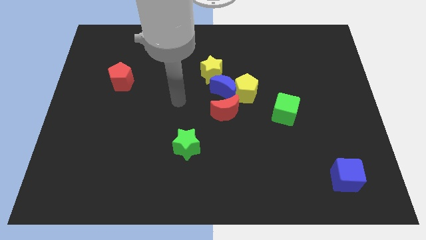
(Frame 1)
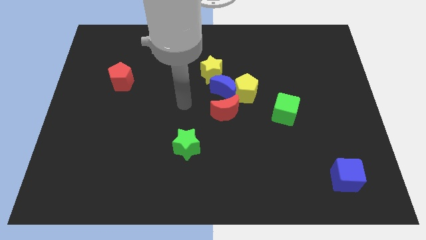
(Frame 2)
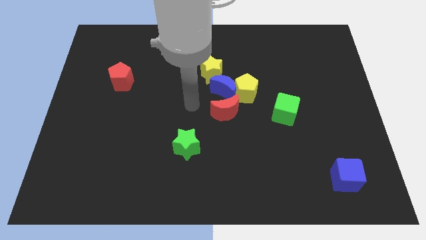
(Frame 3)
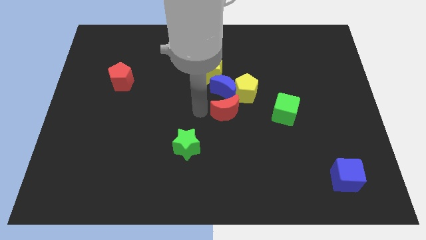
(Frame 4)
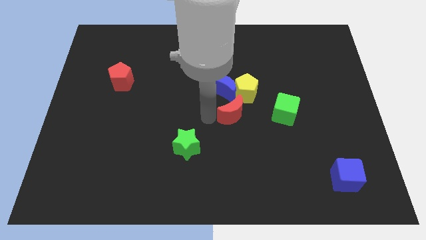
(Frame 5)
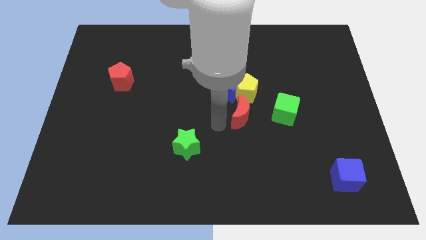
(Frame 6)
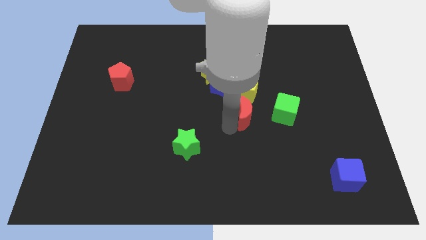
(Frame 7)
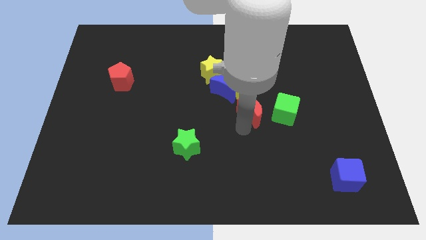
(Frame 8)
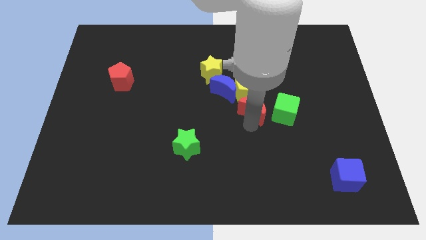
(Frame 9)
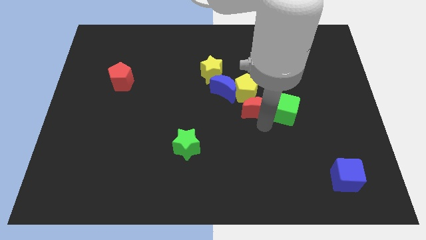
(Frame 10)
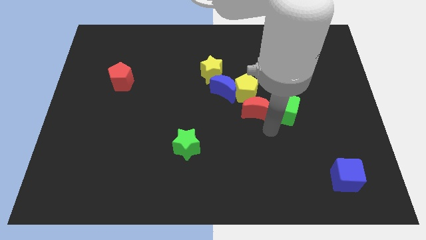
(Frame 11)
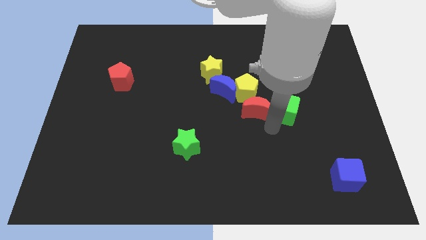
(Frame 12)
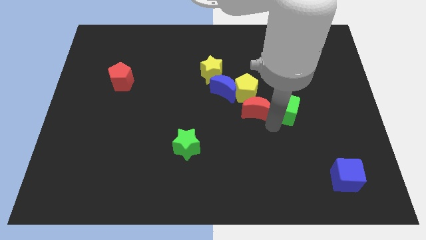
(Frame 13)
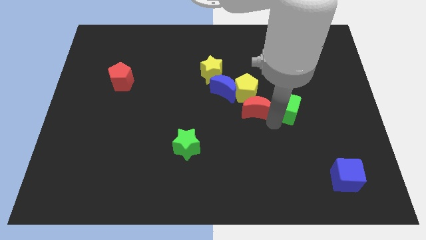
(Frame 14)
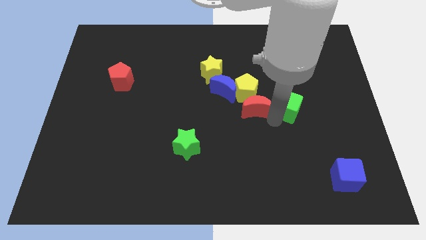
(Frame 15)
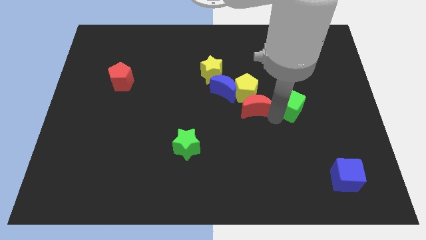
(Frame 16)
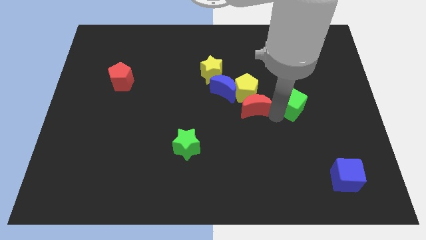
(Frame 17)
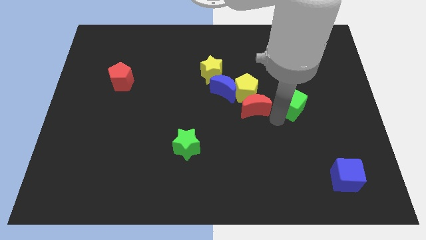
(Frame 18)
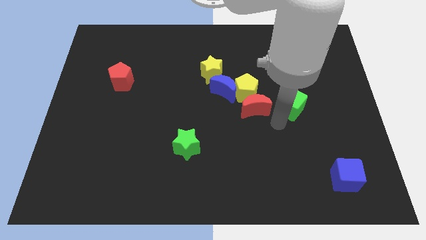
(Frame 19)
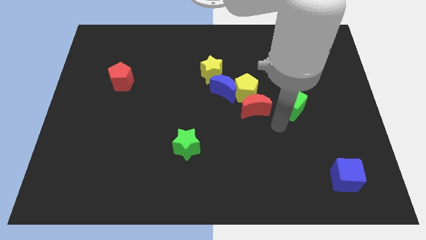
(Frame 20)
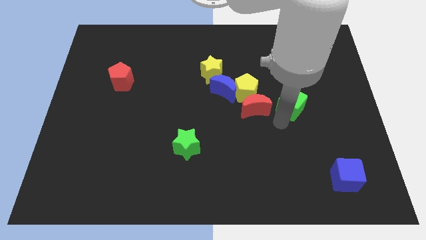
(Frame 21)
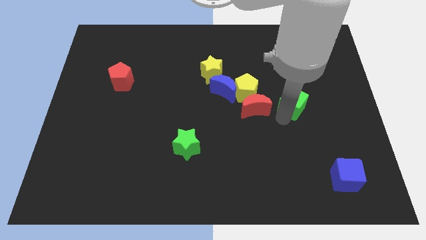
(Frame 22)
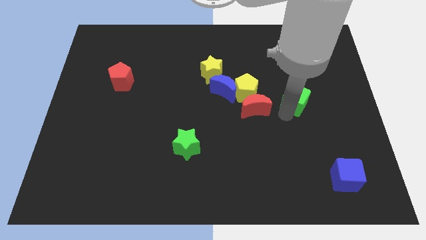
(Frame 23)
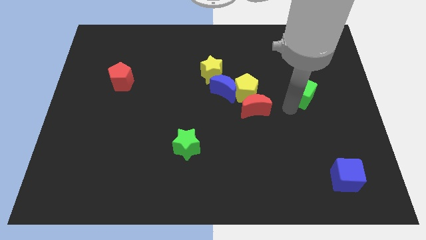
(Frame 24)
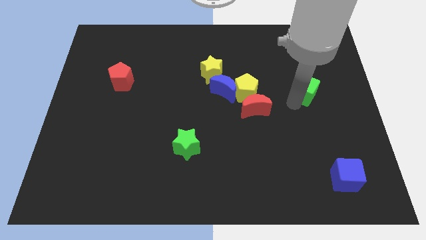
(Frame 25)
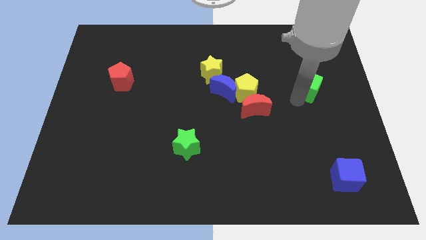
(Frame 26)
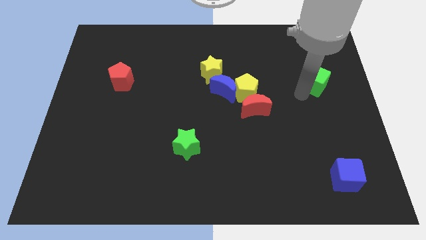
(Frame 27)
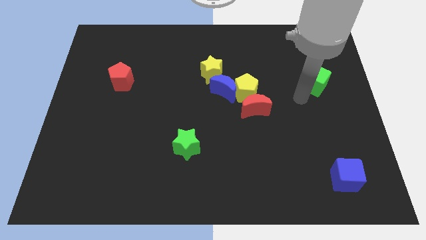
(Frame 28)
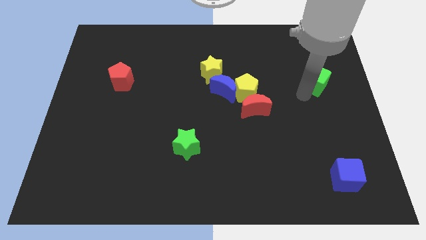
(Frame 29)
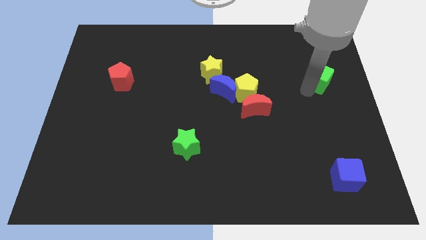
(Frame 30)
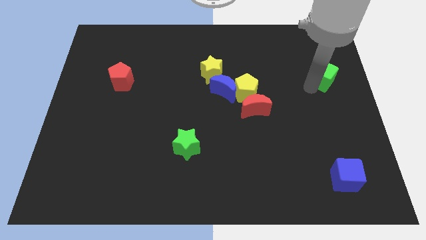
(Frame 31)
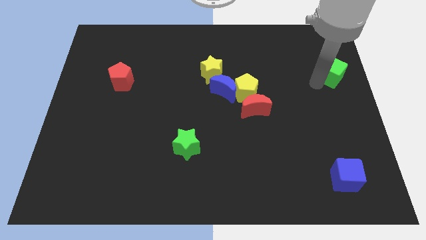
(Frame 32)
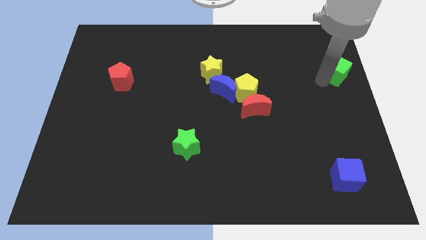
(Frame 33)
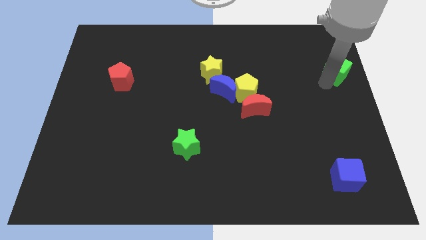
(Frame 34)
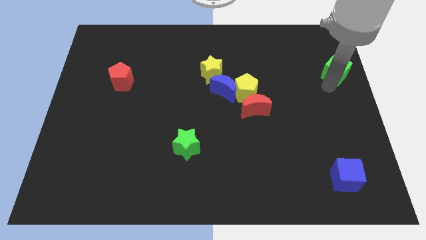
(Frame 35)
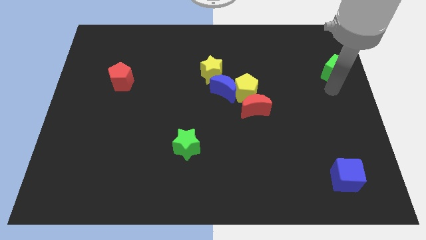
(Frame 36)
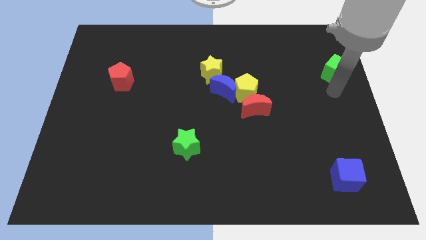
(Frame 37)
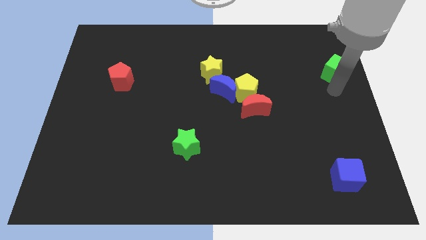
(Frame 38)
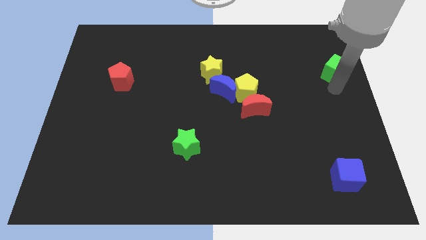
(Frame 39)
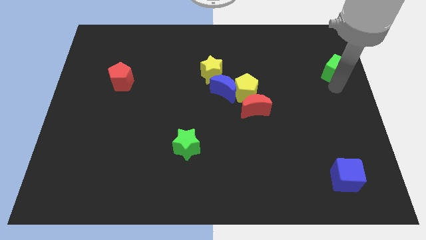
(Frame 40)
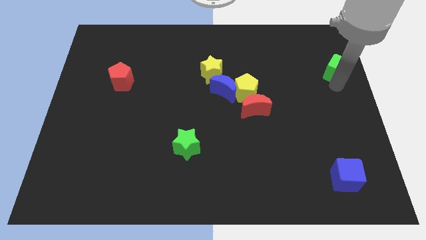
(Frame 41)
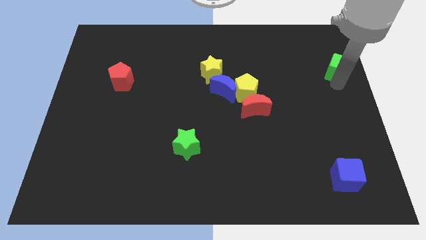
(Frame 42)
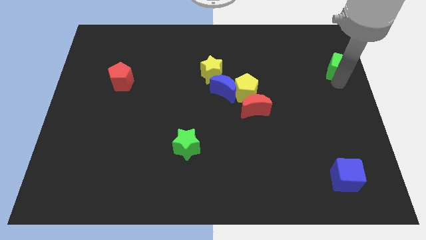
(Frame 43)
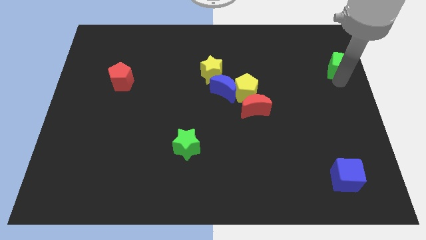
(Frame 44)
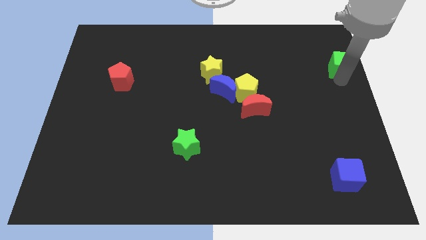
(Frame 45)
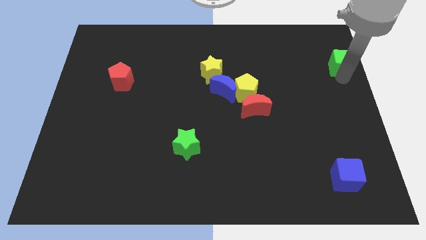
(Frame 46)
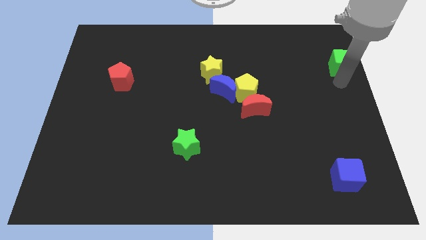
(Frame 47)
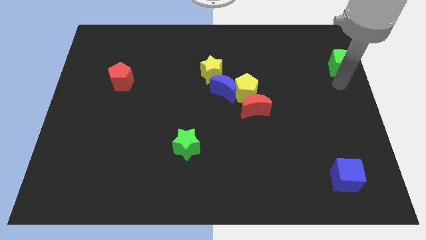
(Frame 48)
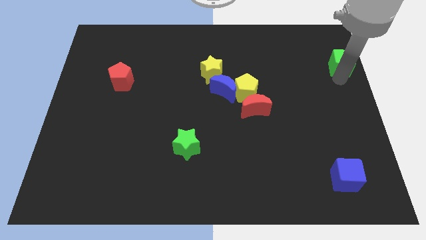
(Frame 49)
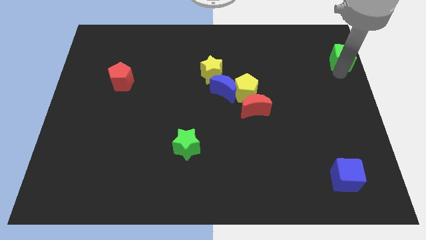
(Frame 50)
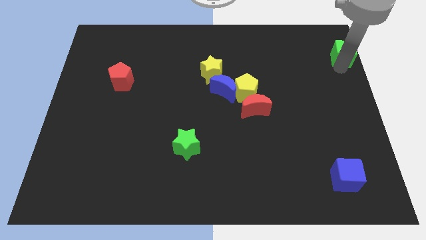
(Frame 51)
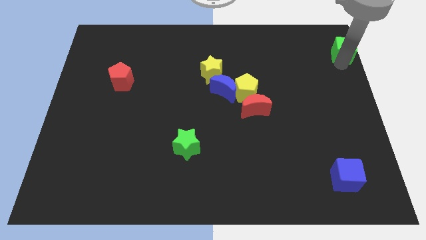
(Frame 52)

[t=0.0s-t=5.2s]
push the green cube to the top right corner

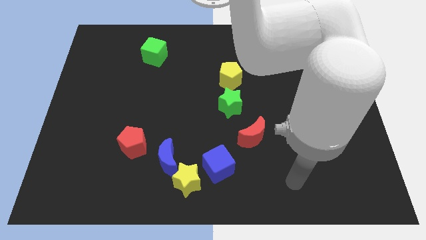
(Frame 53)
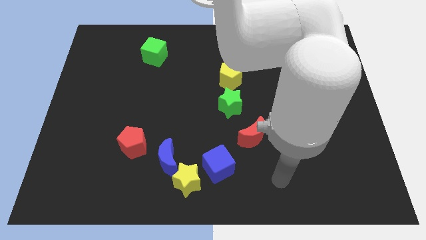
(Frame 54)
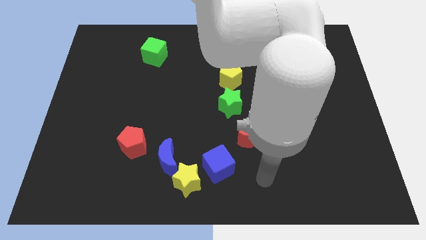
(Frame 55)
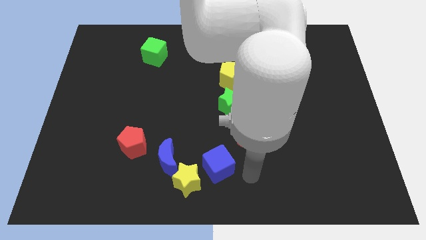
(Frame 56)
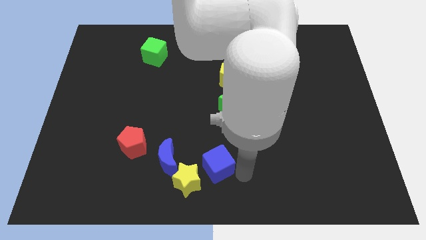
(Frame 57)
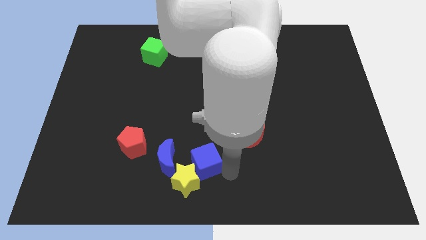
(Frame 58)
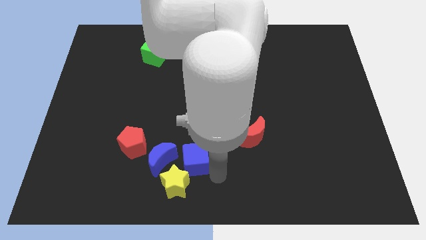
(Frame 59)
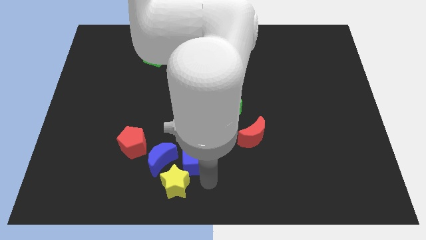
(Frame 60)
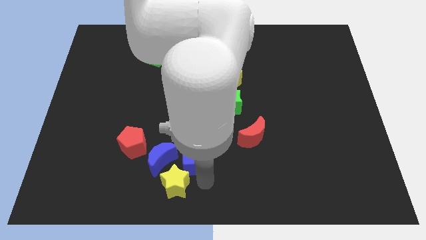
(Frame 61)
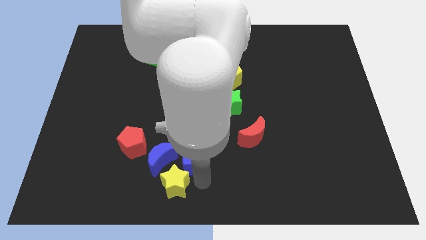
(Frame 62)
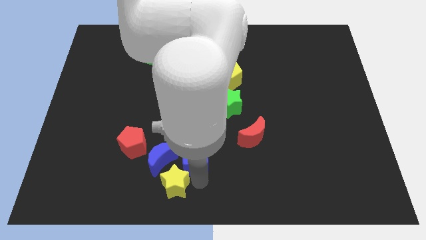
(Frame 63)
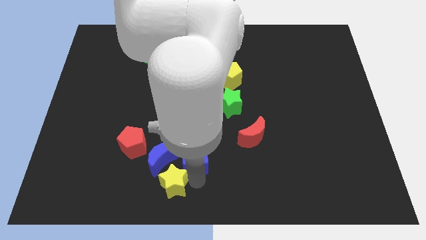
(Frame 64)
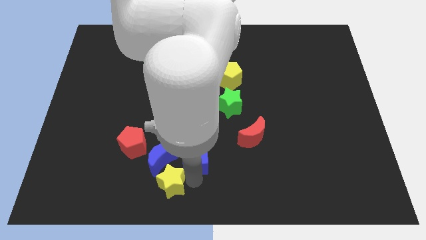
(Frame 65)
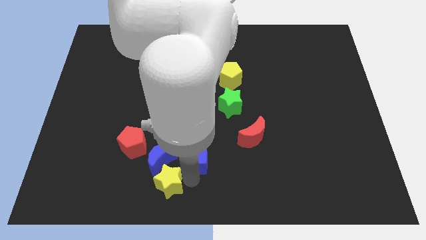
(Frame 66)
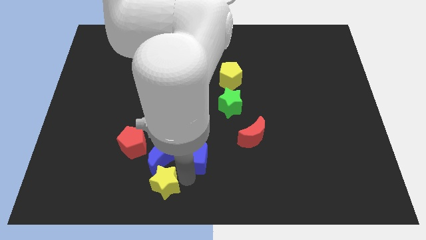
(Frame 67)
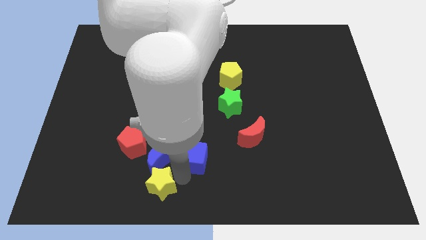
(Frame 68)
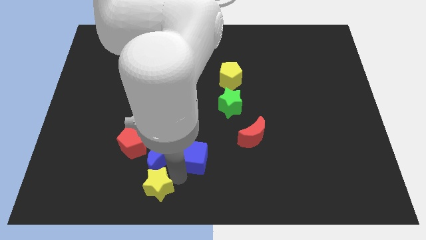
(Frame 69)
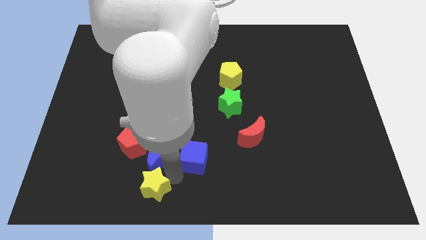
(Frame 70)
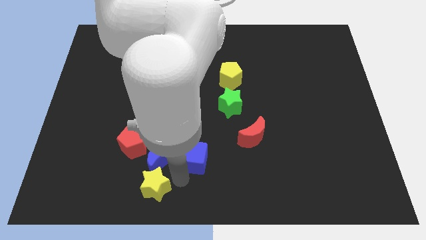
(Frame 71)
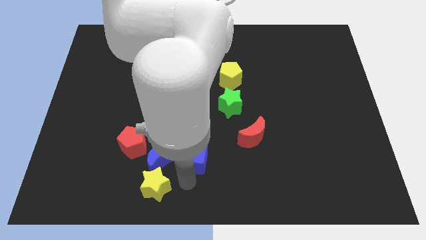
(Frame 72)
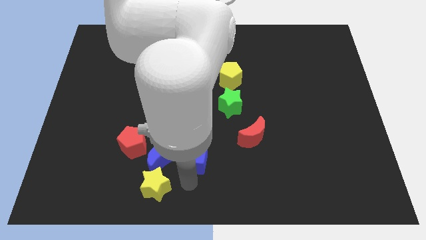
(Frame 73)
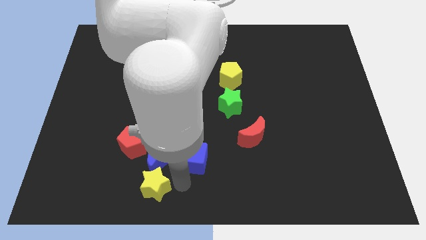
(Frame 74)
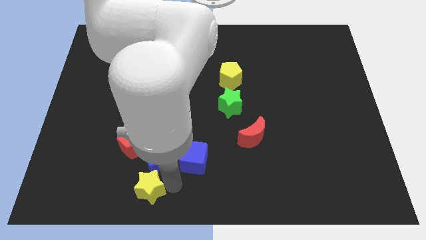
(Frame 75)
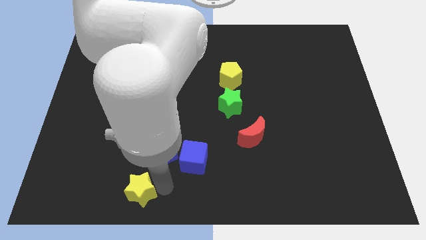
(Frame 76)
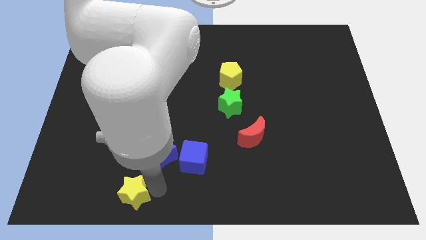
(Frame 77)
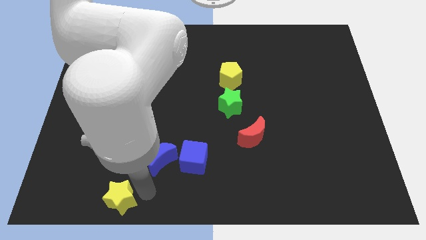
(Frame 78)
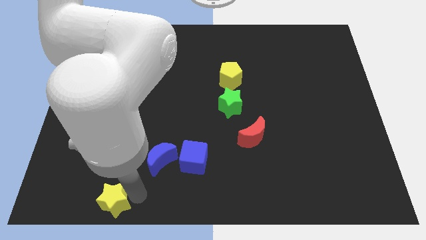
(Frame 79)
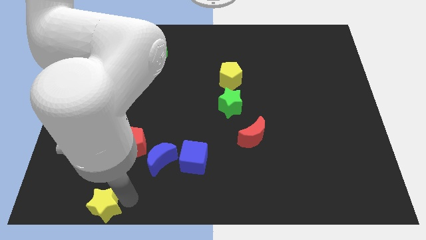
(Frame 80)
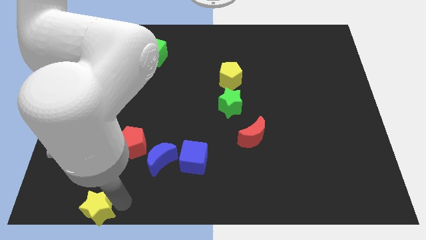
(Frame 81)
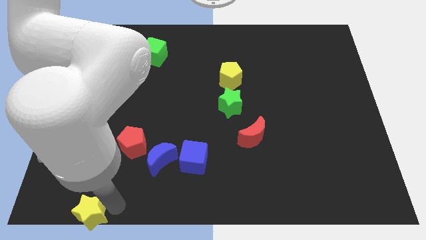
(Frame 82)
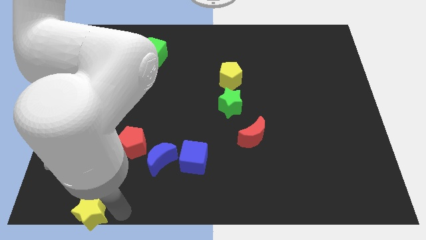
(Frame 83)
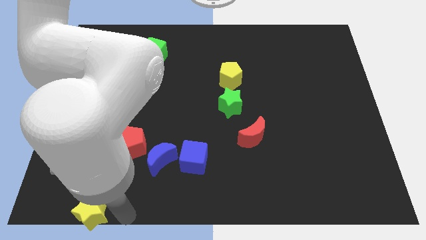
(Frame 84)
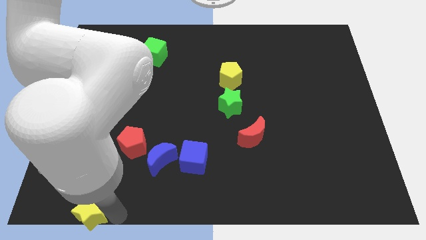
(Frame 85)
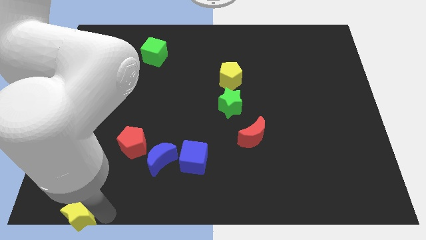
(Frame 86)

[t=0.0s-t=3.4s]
put the yellow star to the lower left corner
